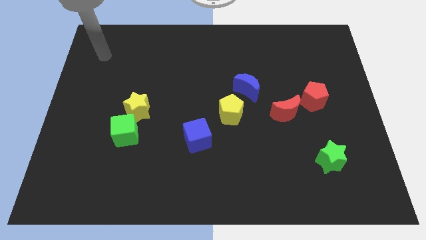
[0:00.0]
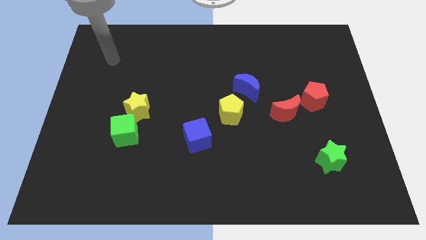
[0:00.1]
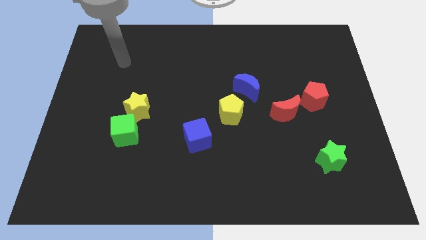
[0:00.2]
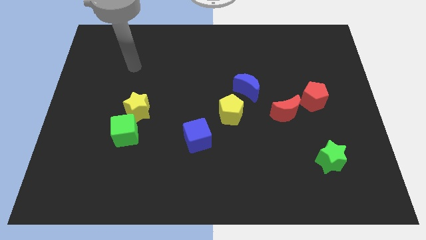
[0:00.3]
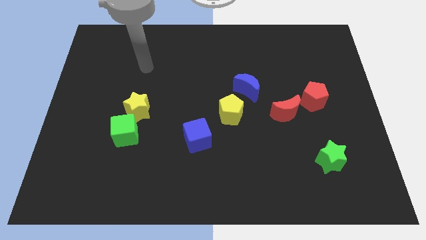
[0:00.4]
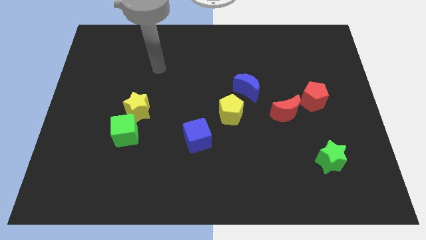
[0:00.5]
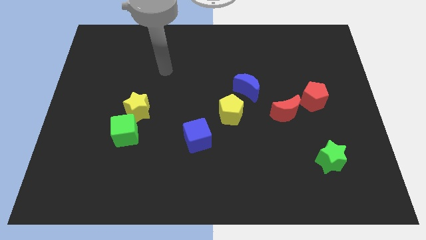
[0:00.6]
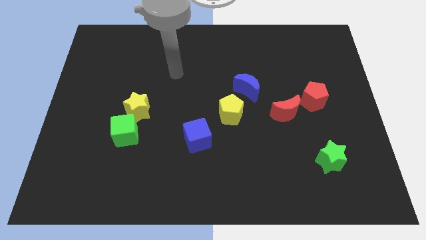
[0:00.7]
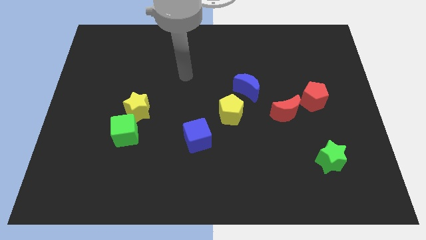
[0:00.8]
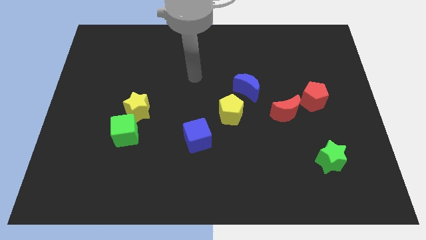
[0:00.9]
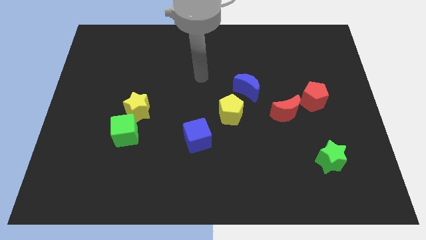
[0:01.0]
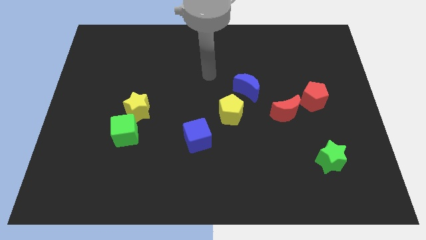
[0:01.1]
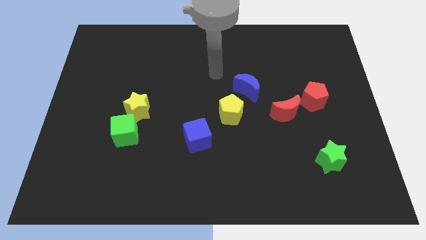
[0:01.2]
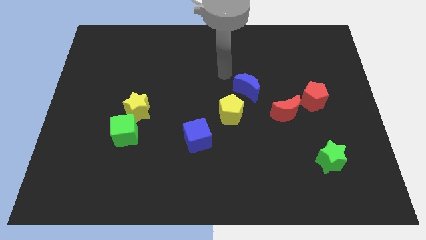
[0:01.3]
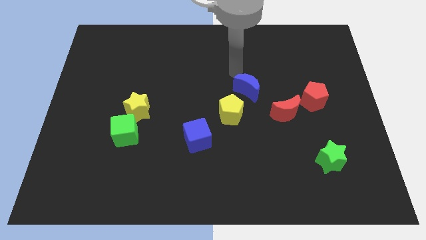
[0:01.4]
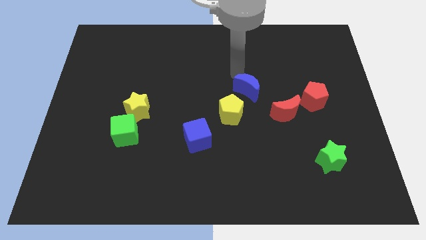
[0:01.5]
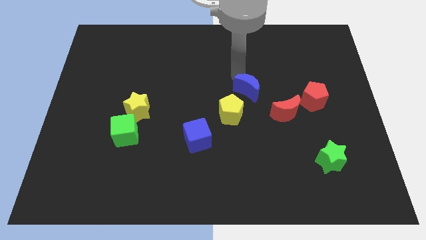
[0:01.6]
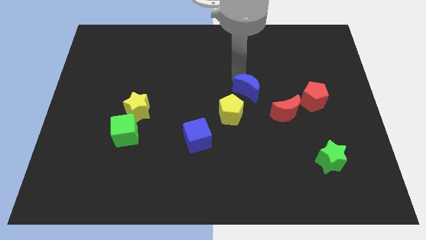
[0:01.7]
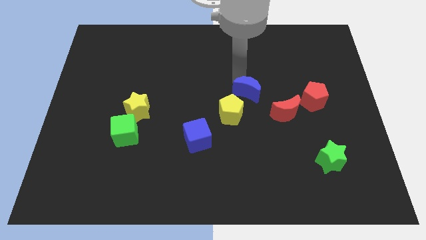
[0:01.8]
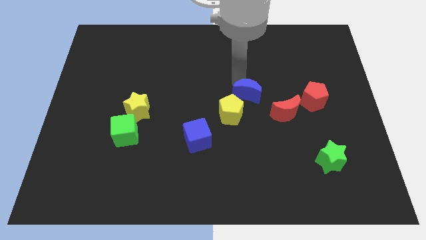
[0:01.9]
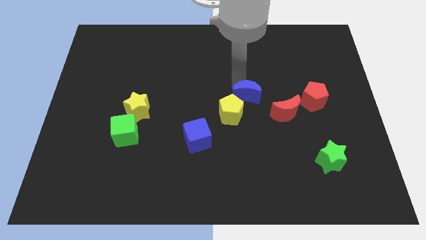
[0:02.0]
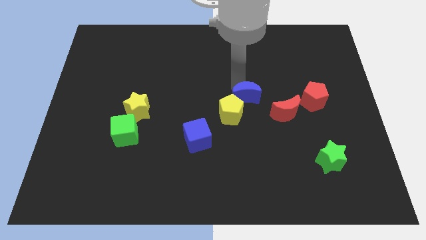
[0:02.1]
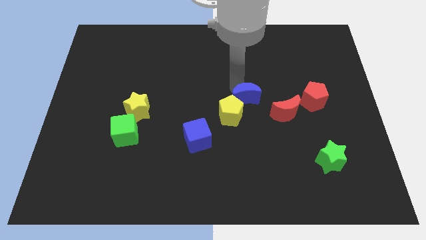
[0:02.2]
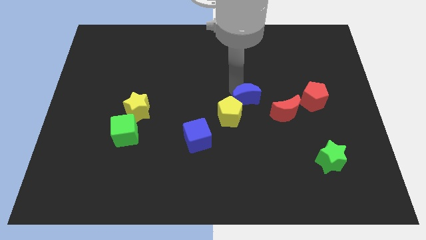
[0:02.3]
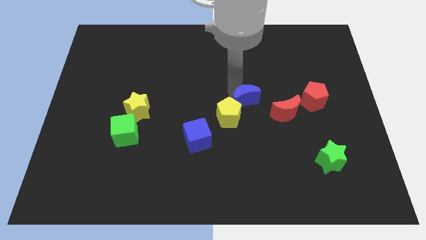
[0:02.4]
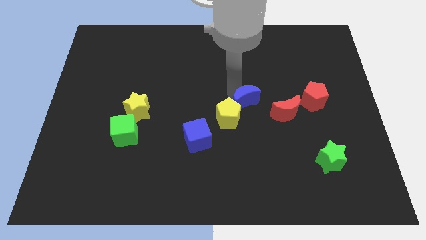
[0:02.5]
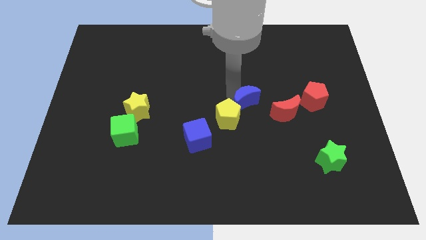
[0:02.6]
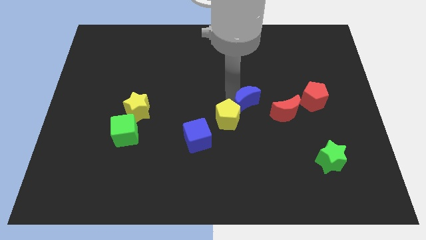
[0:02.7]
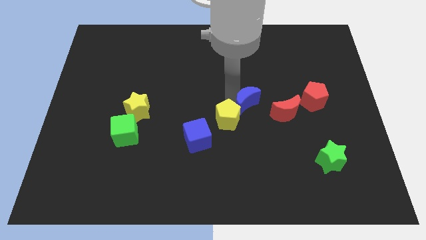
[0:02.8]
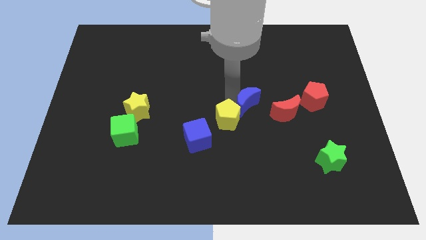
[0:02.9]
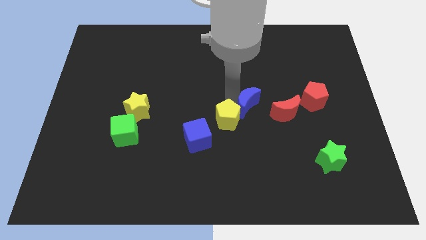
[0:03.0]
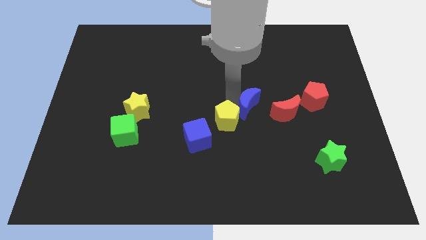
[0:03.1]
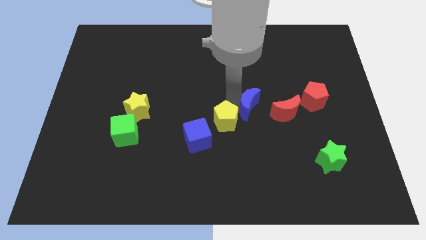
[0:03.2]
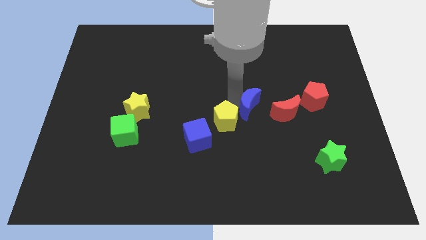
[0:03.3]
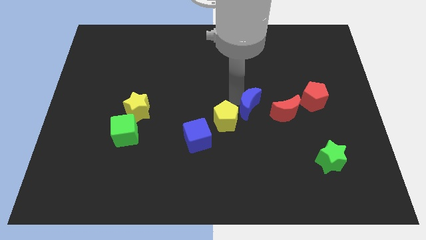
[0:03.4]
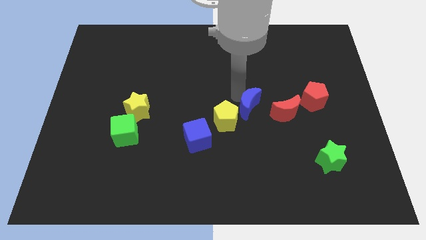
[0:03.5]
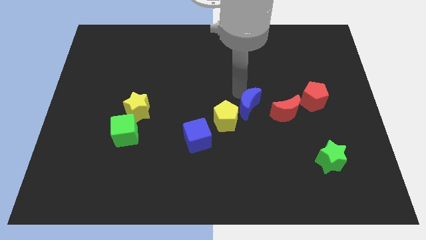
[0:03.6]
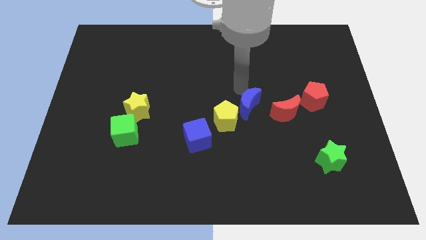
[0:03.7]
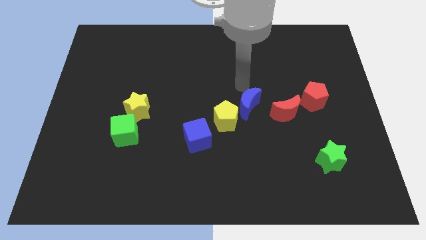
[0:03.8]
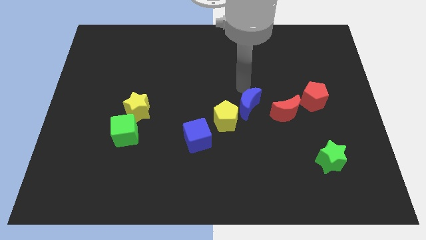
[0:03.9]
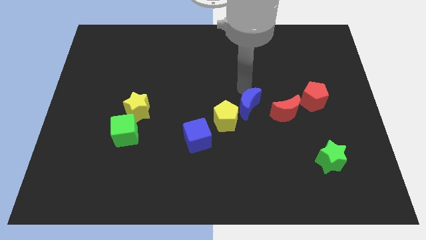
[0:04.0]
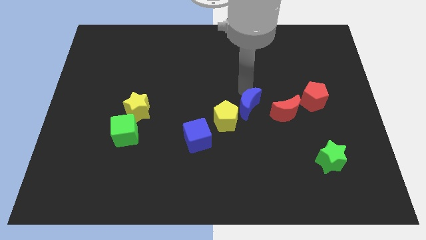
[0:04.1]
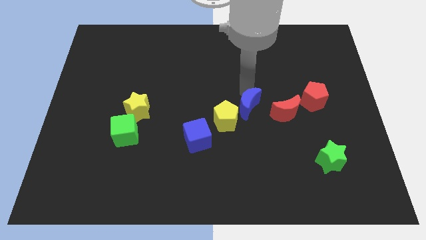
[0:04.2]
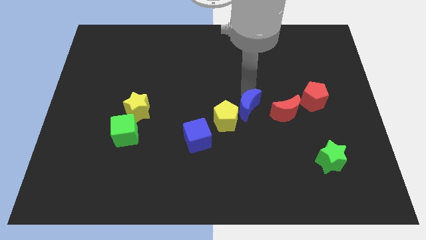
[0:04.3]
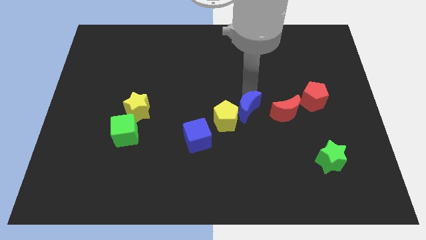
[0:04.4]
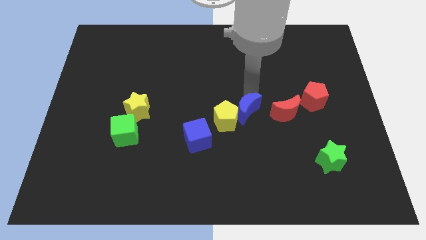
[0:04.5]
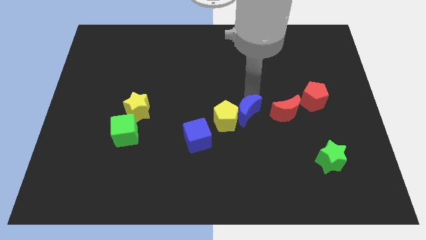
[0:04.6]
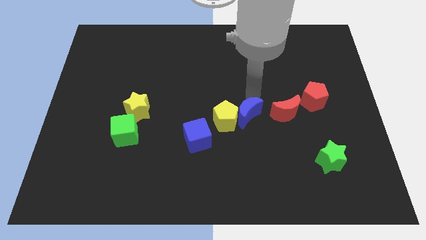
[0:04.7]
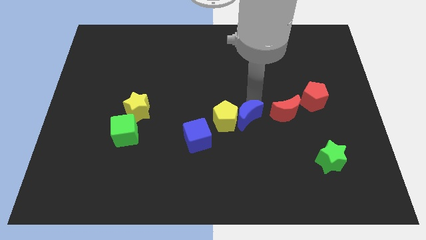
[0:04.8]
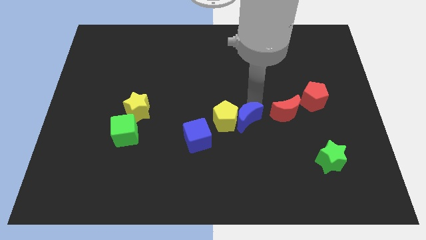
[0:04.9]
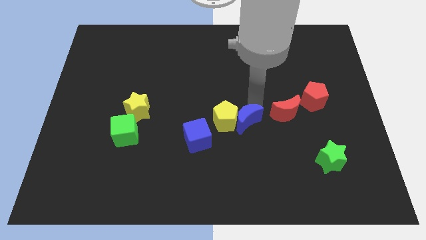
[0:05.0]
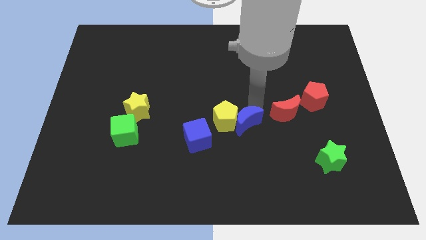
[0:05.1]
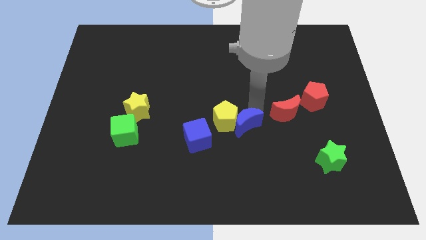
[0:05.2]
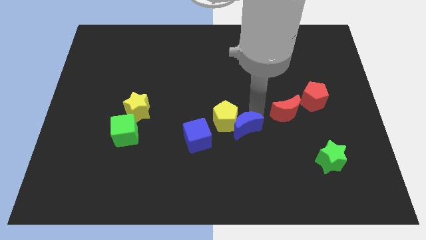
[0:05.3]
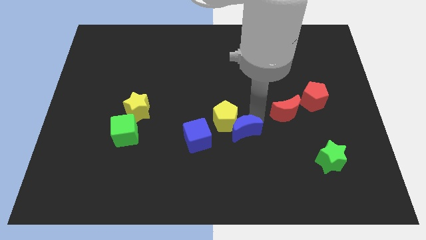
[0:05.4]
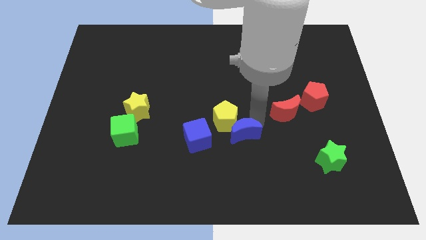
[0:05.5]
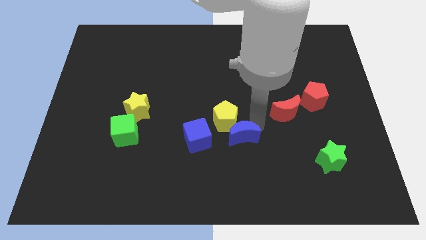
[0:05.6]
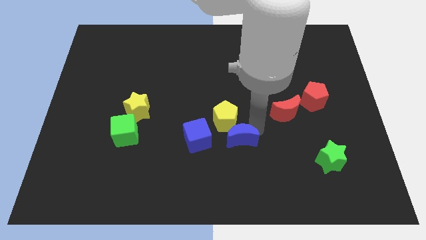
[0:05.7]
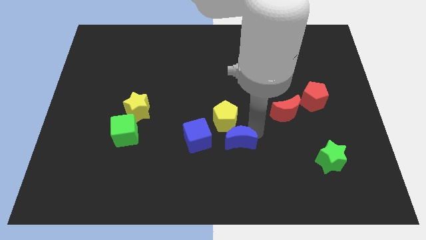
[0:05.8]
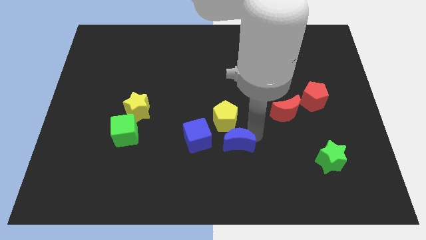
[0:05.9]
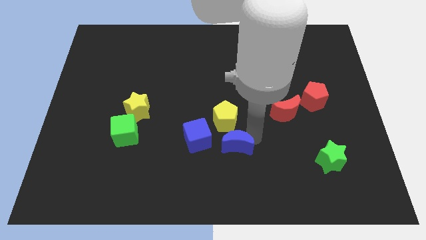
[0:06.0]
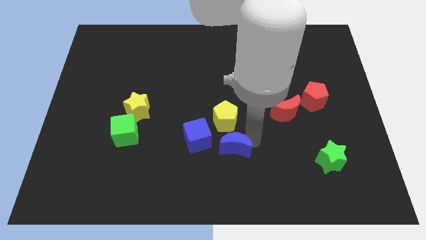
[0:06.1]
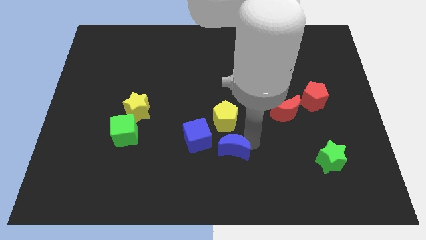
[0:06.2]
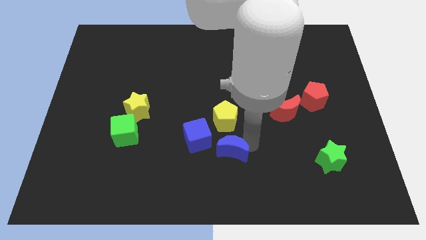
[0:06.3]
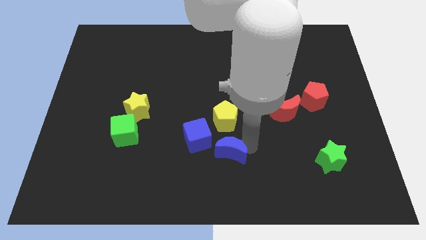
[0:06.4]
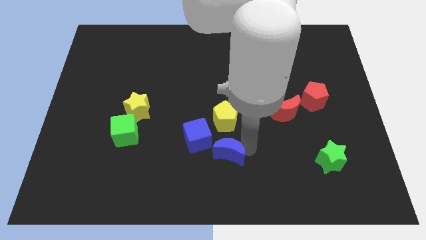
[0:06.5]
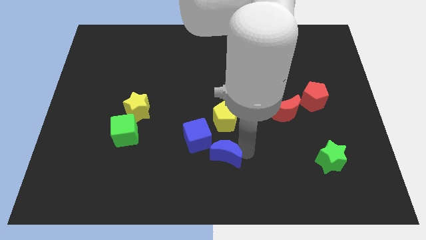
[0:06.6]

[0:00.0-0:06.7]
slide the blue moon to the bottom side
